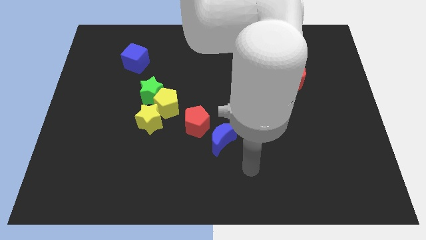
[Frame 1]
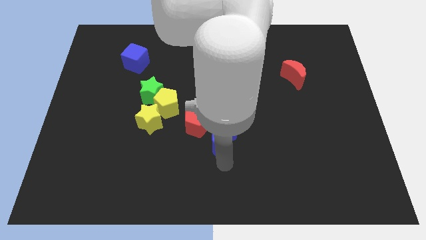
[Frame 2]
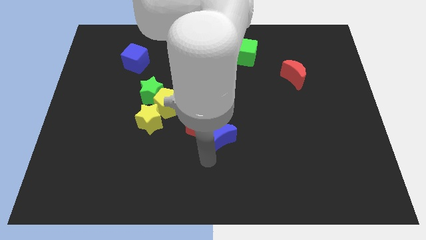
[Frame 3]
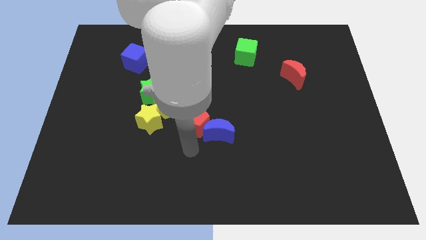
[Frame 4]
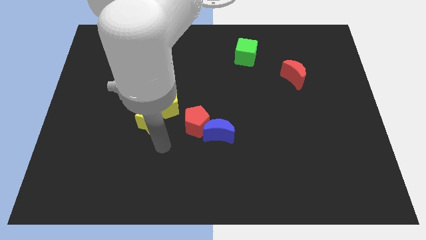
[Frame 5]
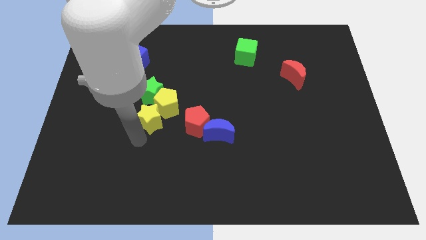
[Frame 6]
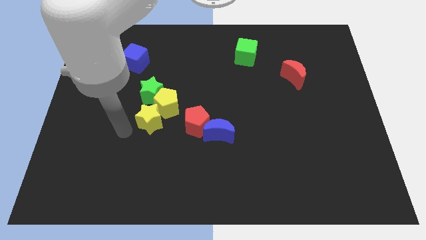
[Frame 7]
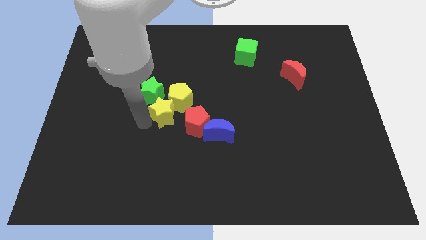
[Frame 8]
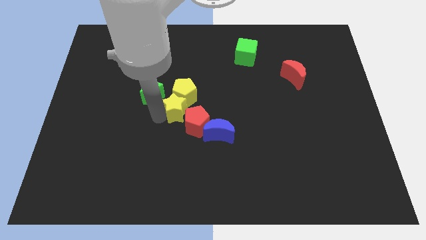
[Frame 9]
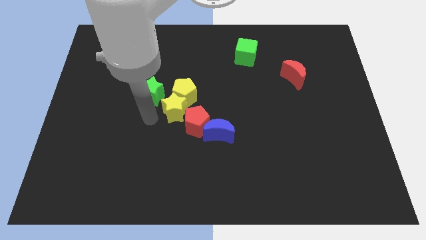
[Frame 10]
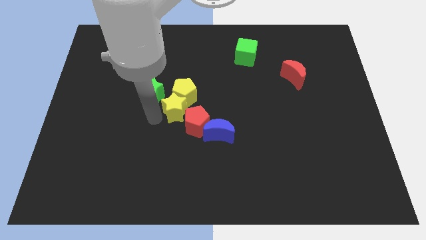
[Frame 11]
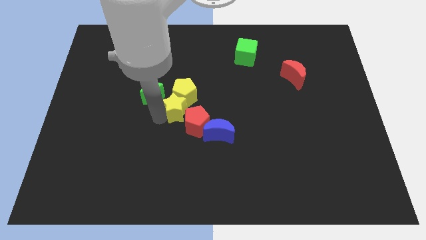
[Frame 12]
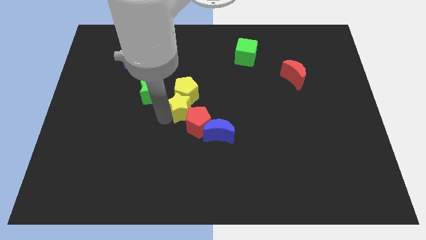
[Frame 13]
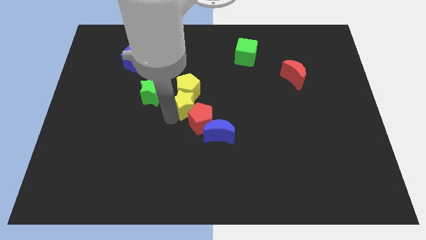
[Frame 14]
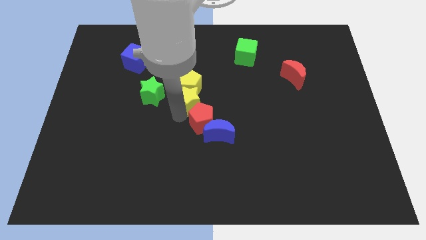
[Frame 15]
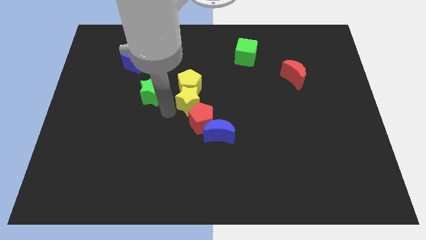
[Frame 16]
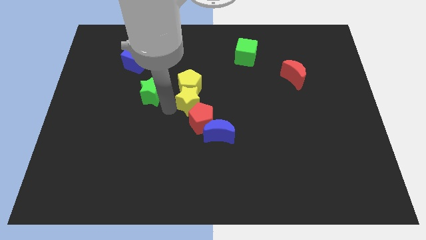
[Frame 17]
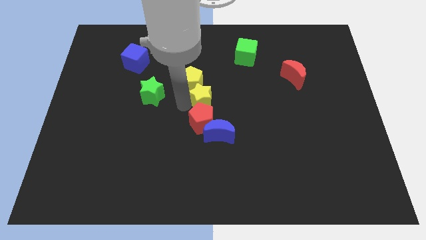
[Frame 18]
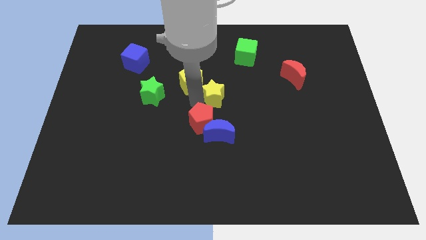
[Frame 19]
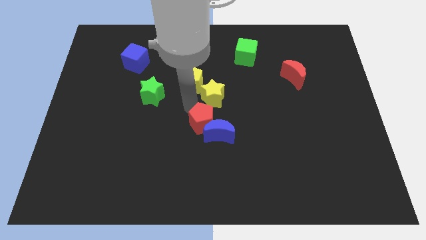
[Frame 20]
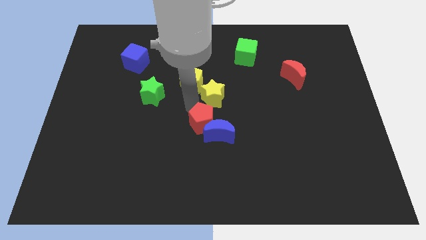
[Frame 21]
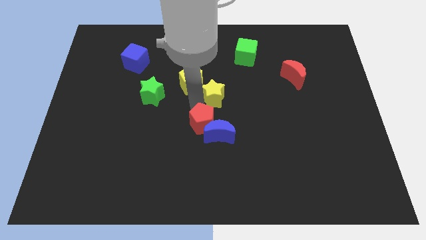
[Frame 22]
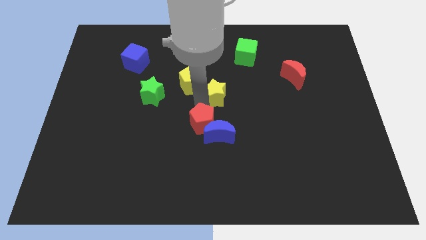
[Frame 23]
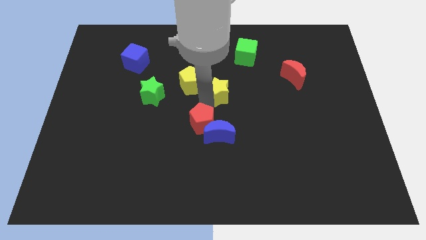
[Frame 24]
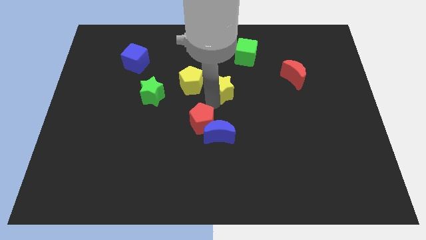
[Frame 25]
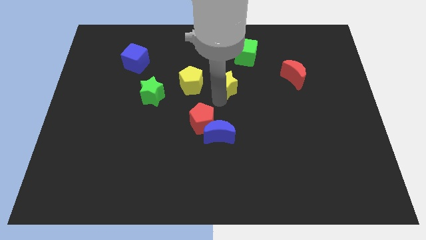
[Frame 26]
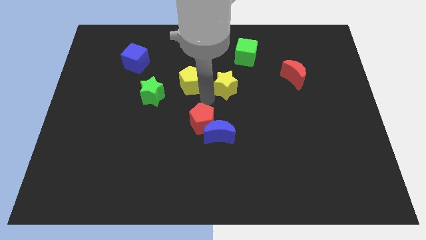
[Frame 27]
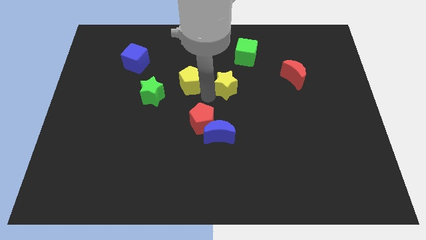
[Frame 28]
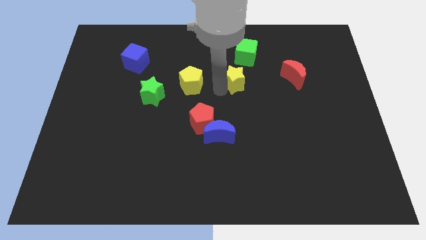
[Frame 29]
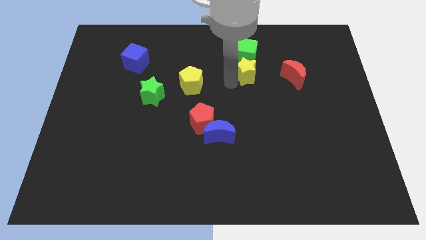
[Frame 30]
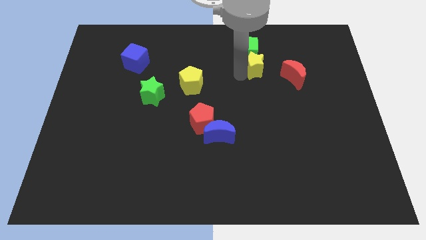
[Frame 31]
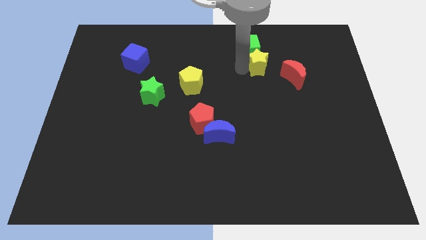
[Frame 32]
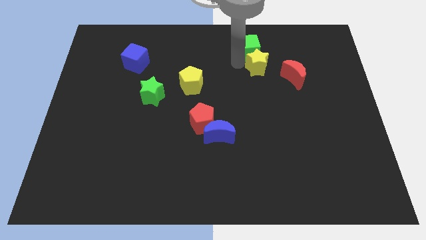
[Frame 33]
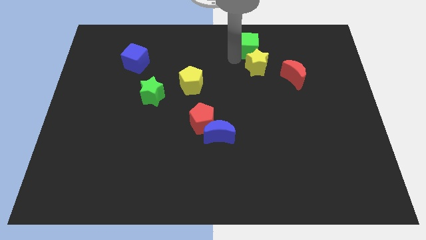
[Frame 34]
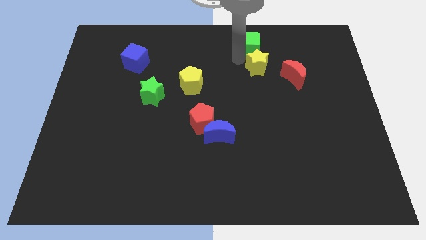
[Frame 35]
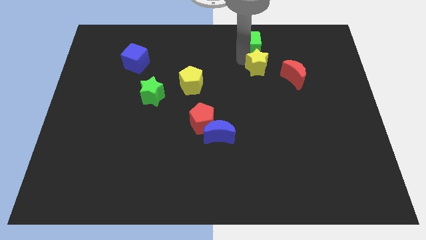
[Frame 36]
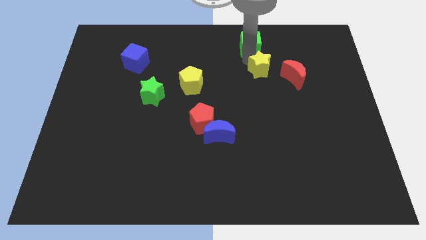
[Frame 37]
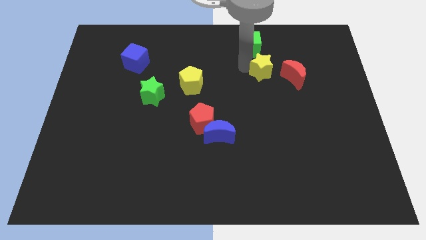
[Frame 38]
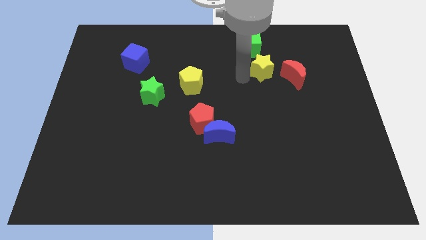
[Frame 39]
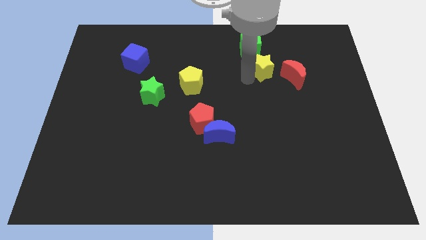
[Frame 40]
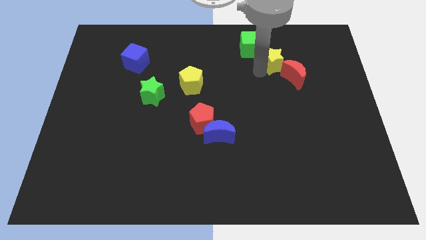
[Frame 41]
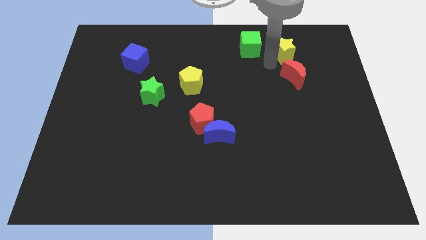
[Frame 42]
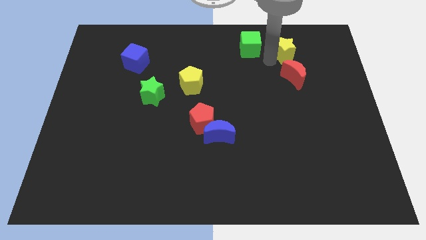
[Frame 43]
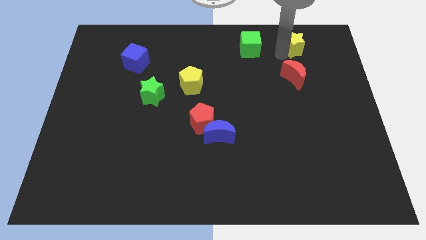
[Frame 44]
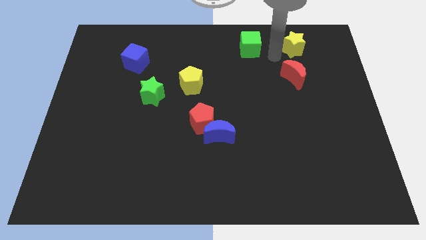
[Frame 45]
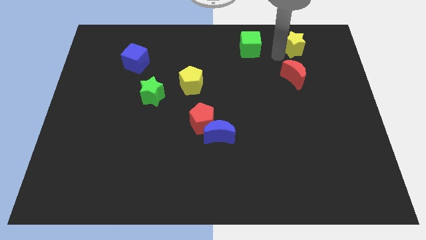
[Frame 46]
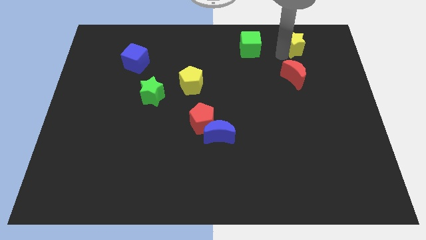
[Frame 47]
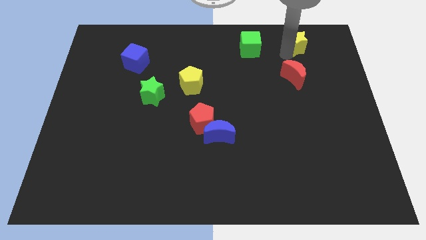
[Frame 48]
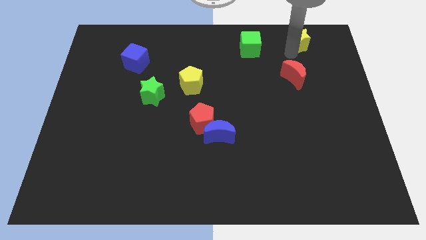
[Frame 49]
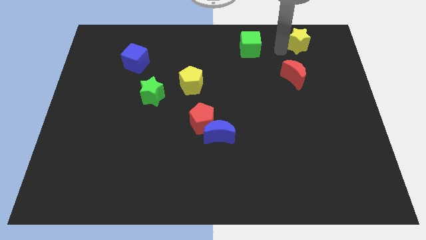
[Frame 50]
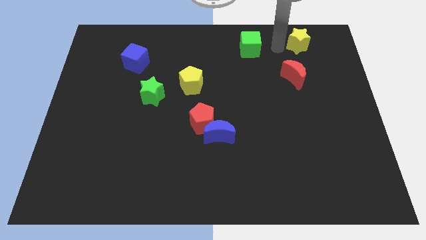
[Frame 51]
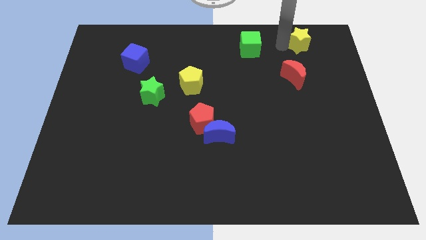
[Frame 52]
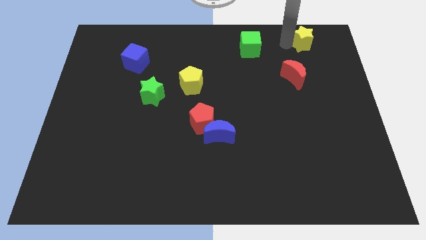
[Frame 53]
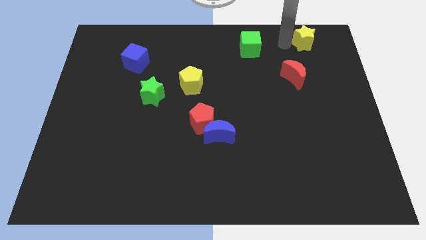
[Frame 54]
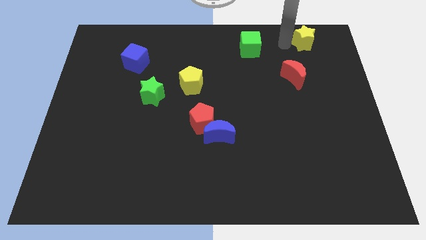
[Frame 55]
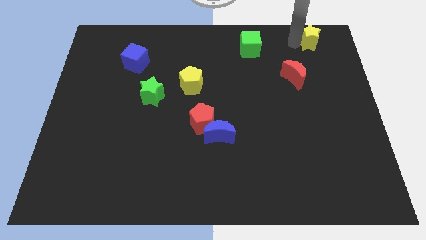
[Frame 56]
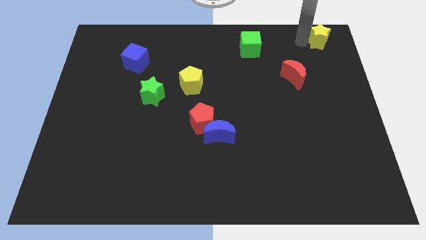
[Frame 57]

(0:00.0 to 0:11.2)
move the yellow star to the top right corner
